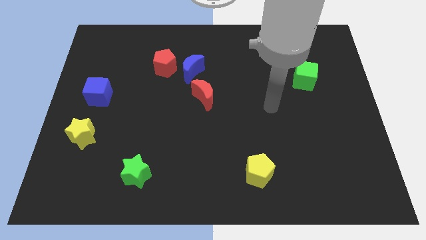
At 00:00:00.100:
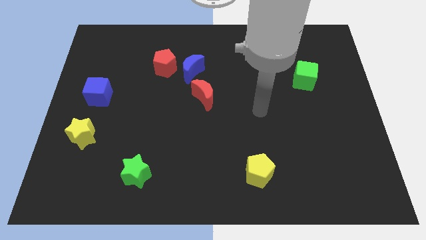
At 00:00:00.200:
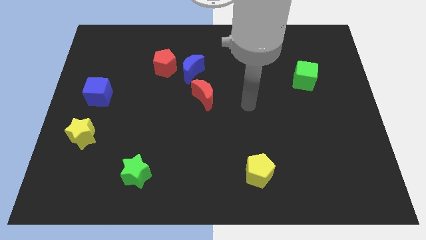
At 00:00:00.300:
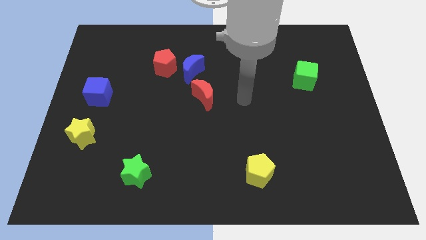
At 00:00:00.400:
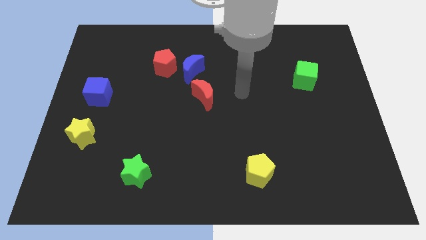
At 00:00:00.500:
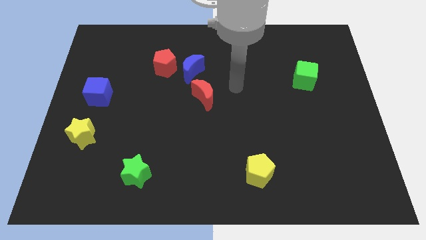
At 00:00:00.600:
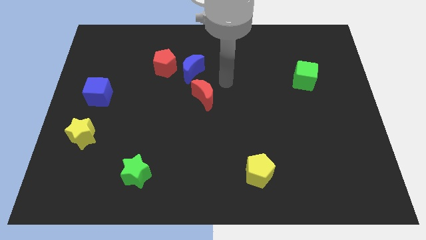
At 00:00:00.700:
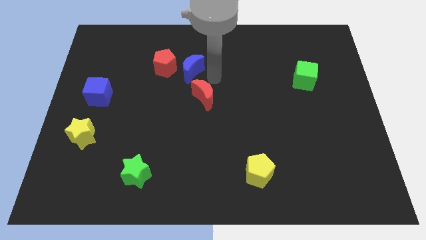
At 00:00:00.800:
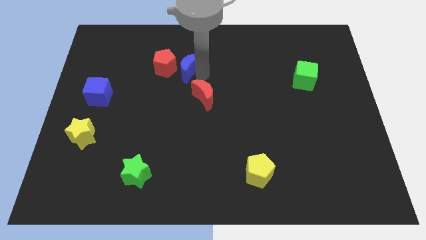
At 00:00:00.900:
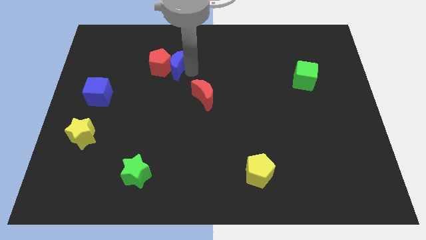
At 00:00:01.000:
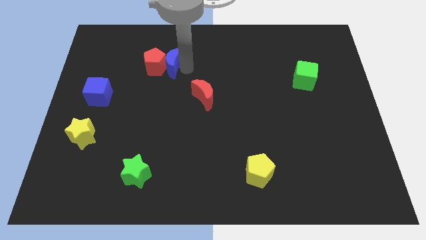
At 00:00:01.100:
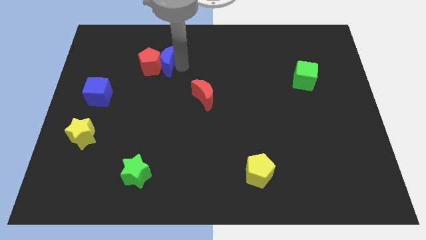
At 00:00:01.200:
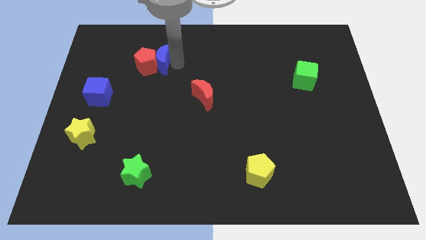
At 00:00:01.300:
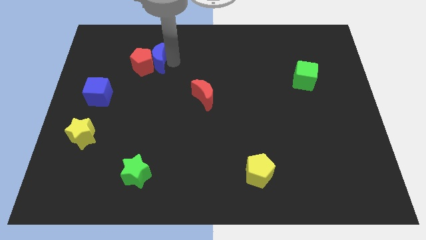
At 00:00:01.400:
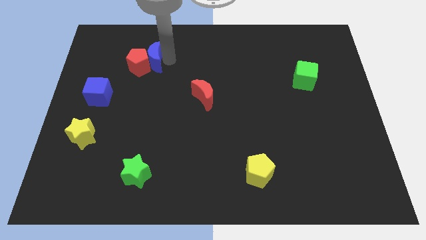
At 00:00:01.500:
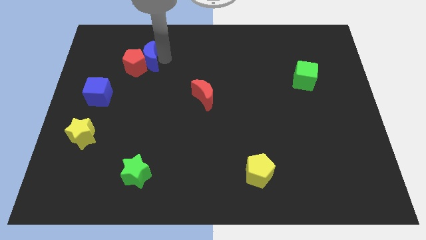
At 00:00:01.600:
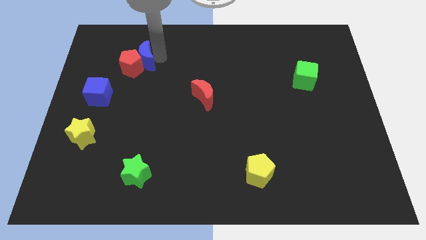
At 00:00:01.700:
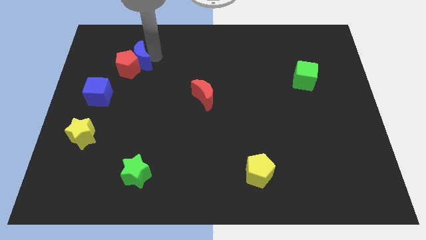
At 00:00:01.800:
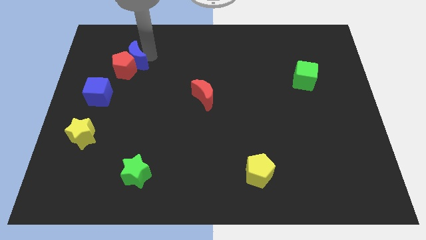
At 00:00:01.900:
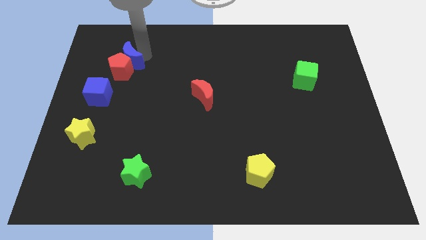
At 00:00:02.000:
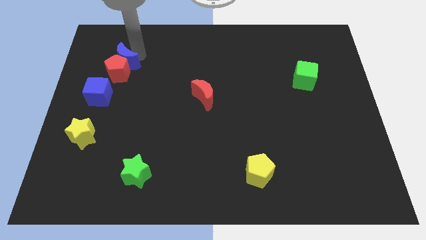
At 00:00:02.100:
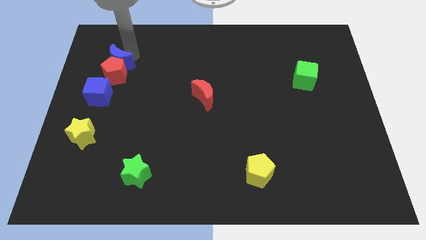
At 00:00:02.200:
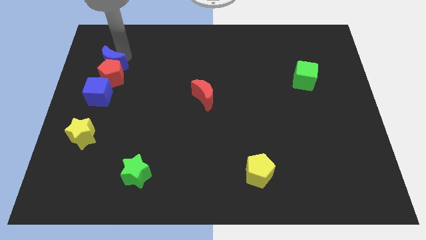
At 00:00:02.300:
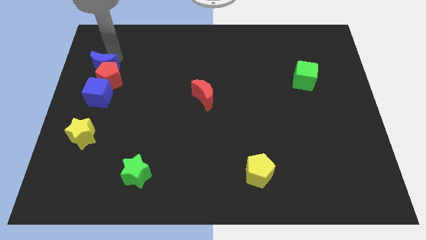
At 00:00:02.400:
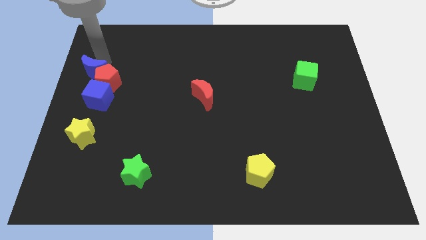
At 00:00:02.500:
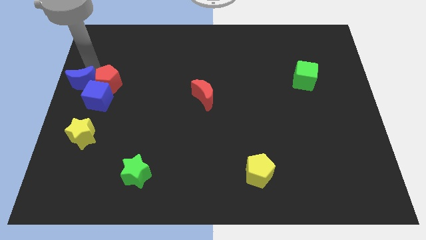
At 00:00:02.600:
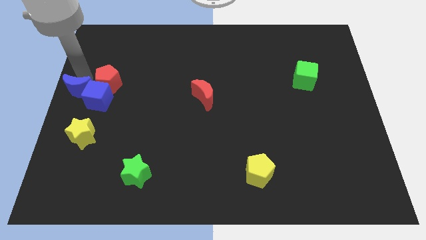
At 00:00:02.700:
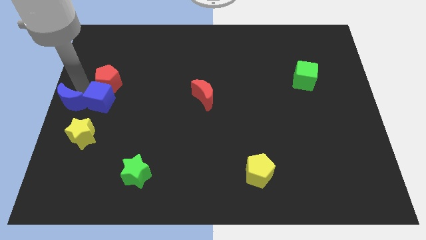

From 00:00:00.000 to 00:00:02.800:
separate the red pentagon from the blue moon

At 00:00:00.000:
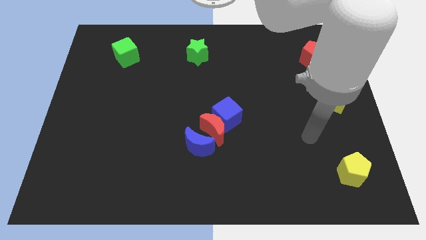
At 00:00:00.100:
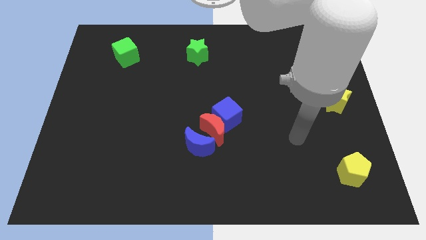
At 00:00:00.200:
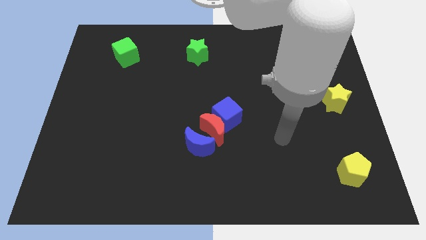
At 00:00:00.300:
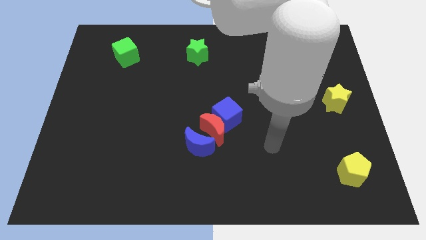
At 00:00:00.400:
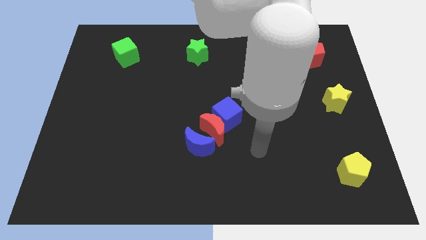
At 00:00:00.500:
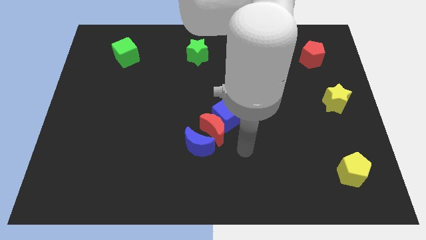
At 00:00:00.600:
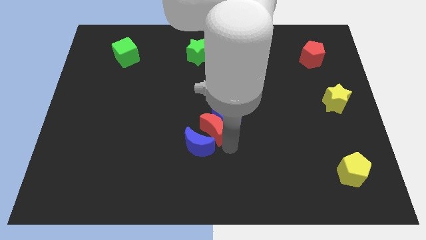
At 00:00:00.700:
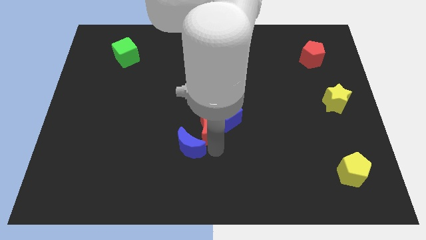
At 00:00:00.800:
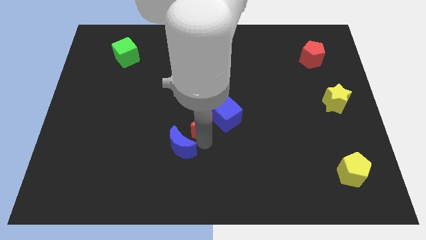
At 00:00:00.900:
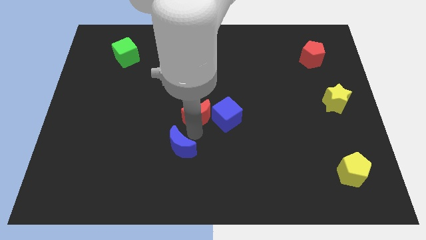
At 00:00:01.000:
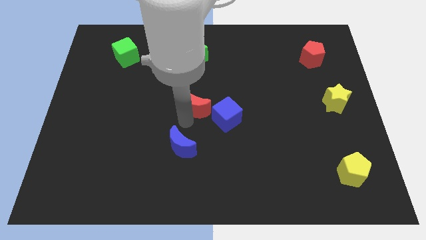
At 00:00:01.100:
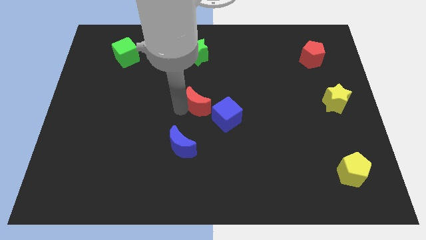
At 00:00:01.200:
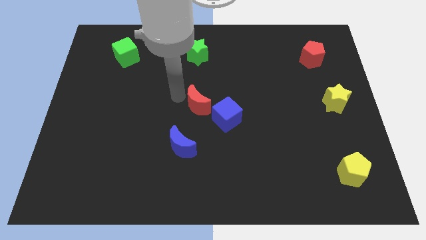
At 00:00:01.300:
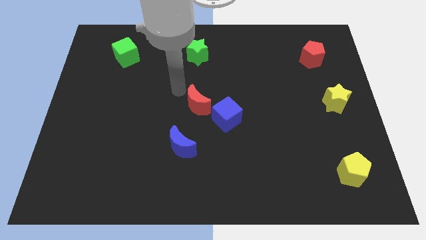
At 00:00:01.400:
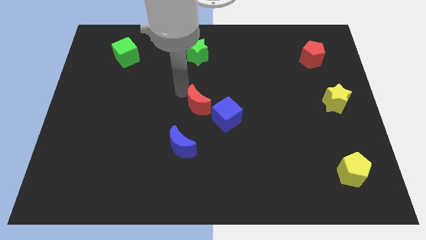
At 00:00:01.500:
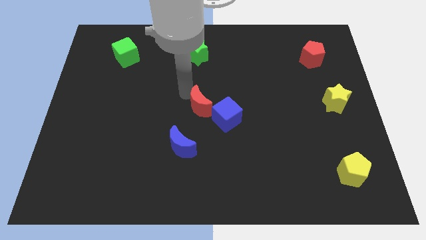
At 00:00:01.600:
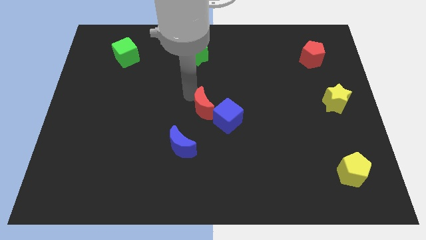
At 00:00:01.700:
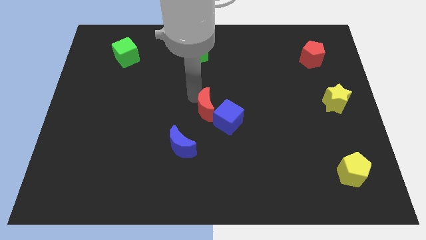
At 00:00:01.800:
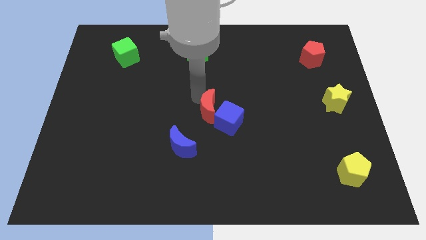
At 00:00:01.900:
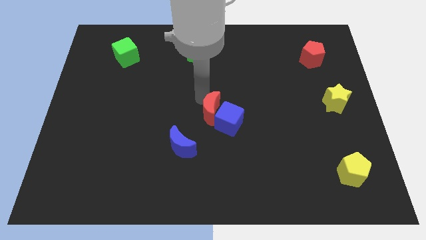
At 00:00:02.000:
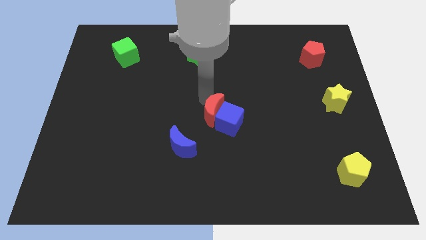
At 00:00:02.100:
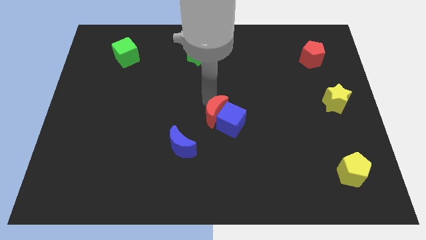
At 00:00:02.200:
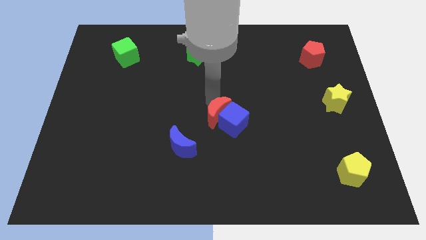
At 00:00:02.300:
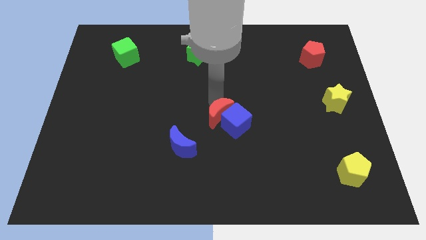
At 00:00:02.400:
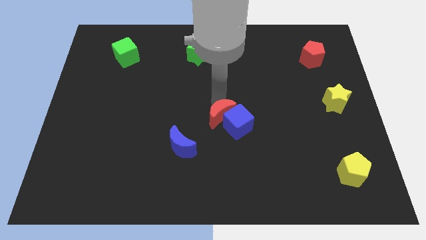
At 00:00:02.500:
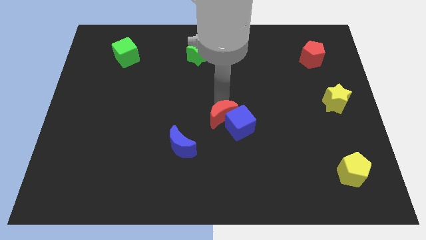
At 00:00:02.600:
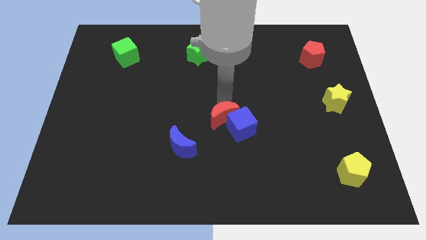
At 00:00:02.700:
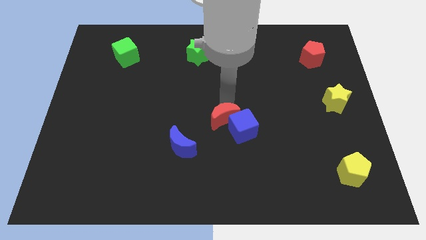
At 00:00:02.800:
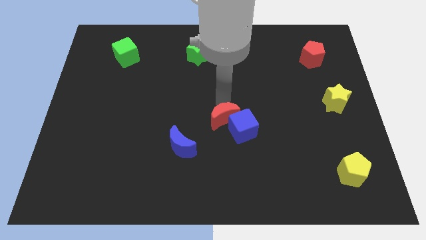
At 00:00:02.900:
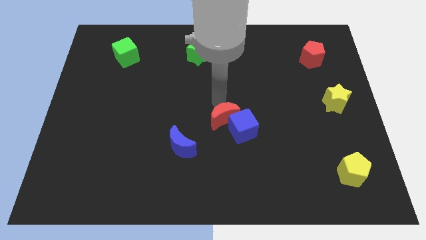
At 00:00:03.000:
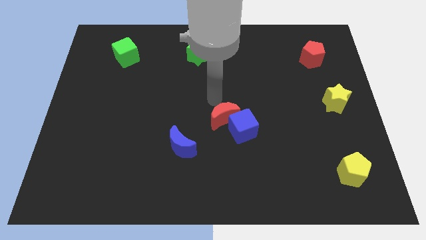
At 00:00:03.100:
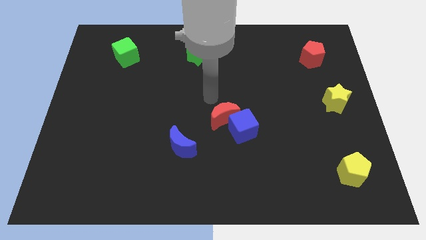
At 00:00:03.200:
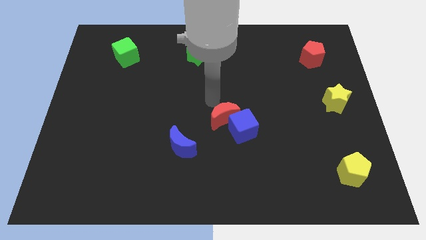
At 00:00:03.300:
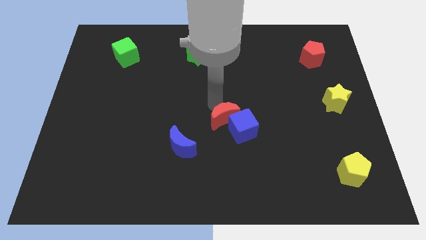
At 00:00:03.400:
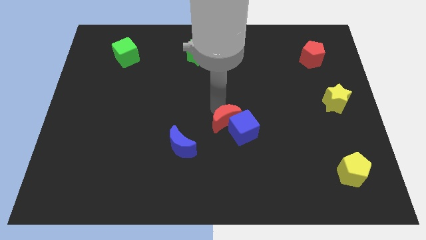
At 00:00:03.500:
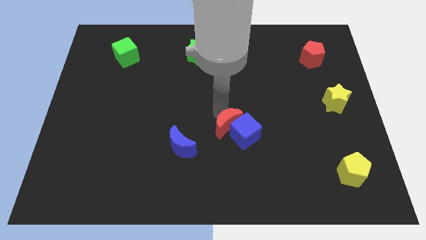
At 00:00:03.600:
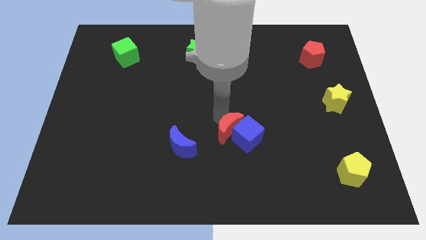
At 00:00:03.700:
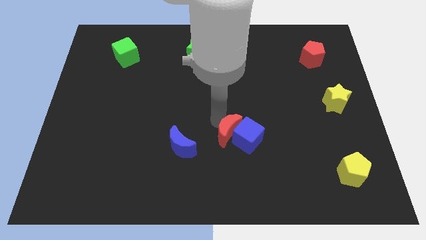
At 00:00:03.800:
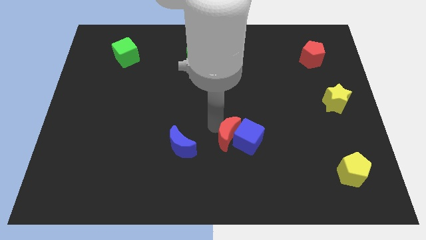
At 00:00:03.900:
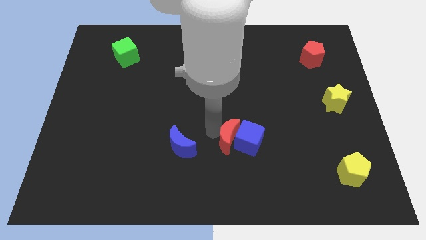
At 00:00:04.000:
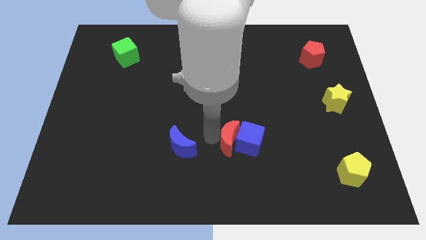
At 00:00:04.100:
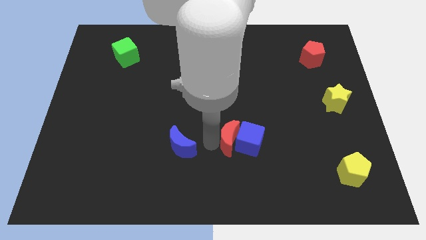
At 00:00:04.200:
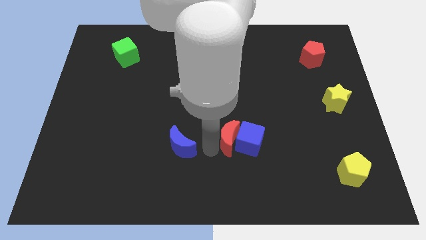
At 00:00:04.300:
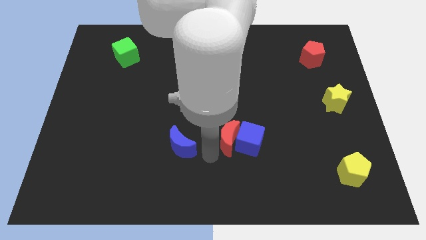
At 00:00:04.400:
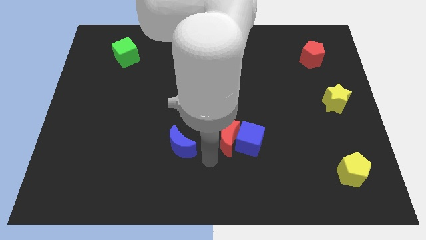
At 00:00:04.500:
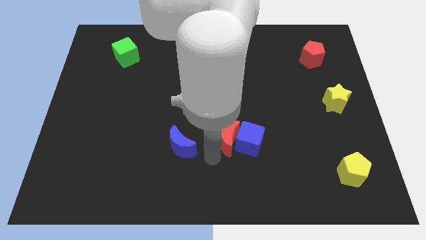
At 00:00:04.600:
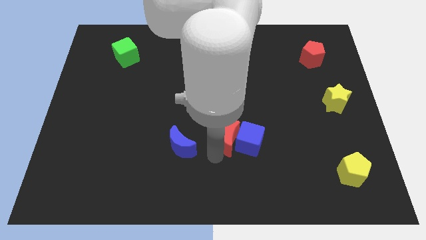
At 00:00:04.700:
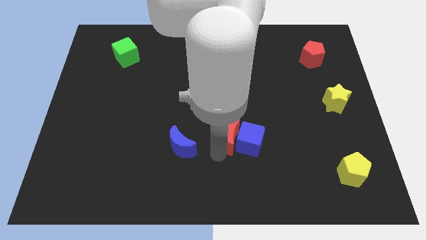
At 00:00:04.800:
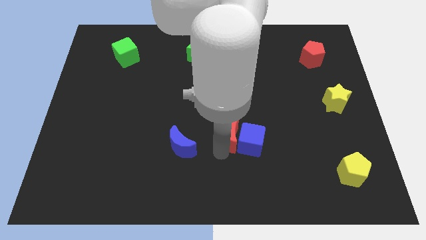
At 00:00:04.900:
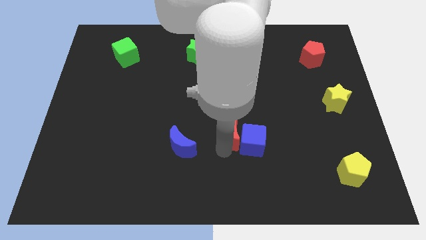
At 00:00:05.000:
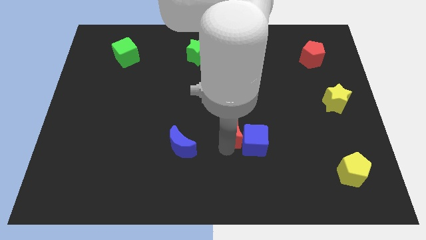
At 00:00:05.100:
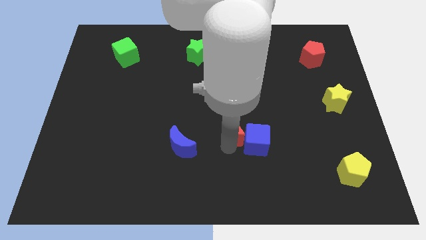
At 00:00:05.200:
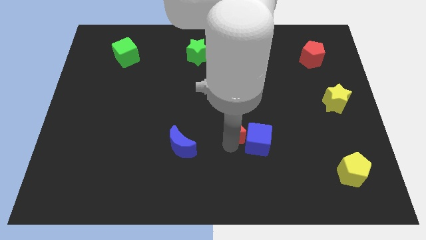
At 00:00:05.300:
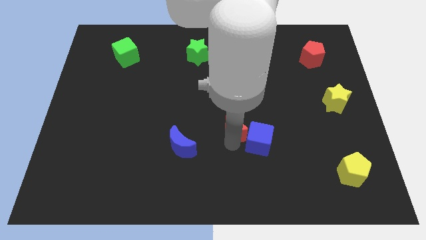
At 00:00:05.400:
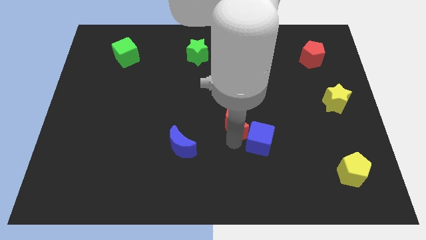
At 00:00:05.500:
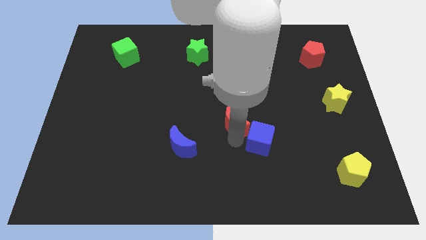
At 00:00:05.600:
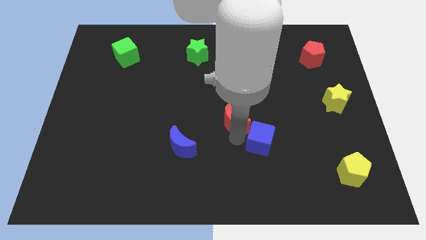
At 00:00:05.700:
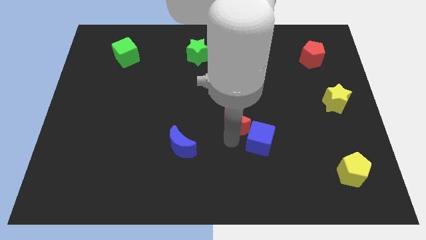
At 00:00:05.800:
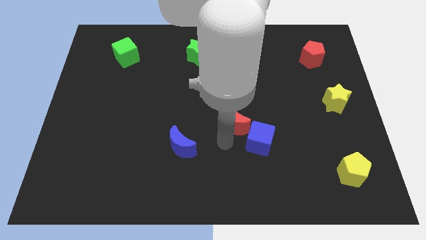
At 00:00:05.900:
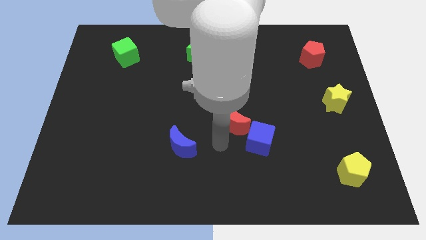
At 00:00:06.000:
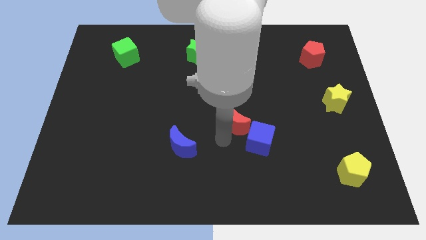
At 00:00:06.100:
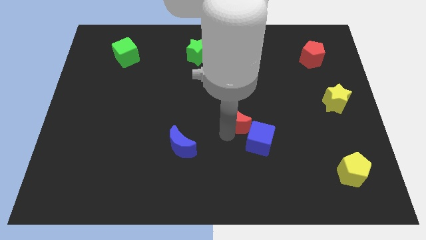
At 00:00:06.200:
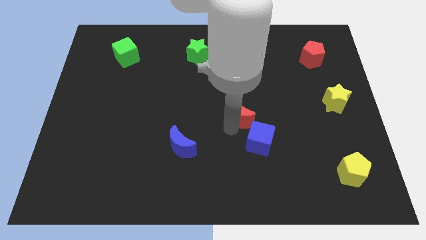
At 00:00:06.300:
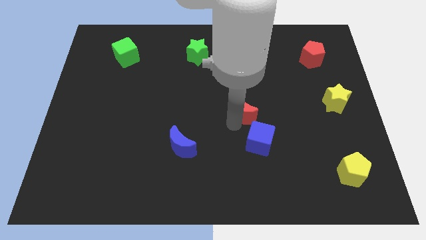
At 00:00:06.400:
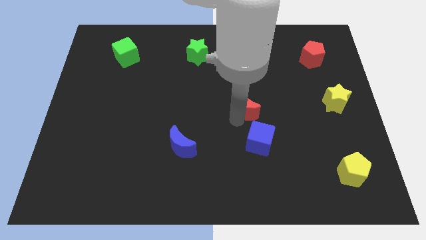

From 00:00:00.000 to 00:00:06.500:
separate the red moon from the blue cube and blue moon
